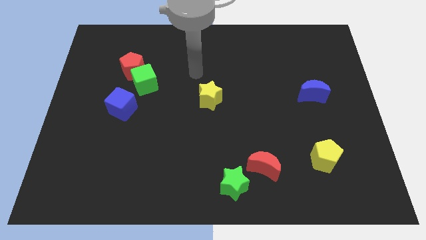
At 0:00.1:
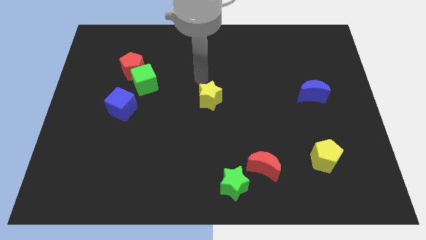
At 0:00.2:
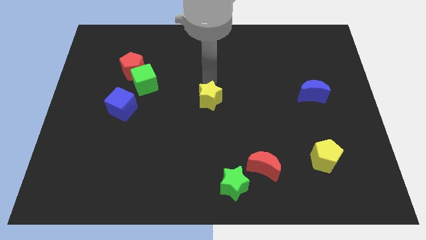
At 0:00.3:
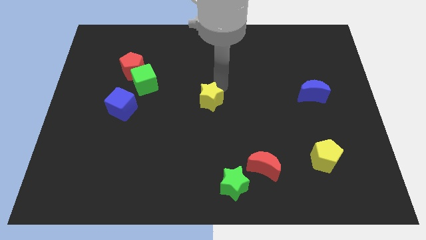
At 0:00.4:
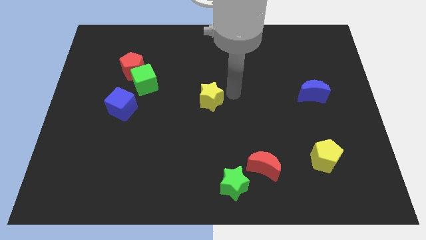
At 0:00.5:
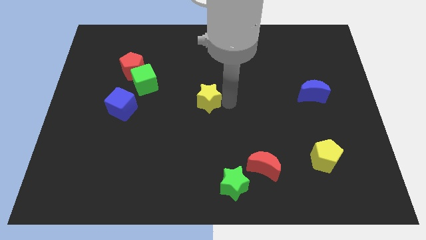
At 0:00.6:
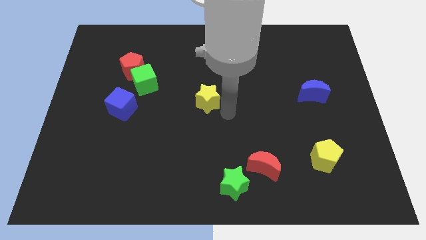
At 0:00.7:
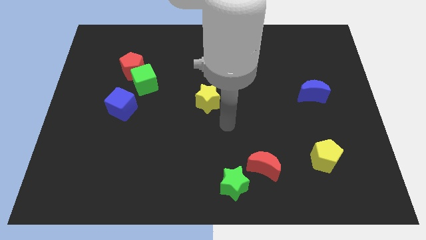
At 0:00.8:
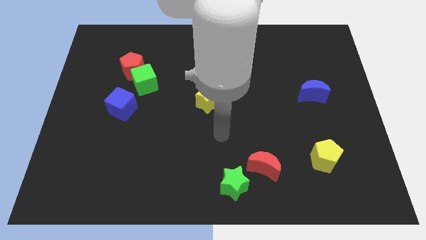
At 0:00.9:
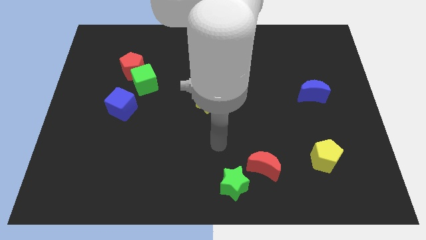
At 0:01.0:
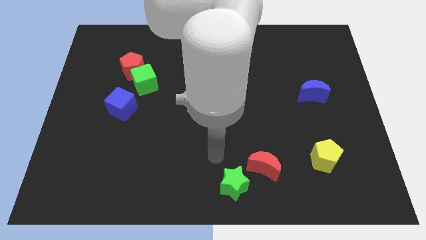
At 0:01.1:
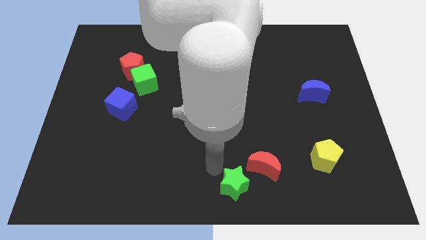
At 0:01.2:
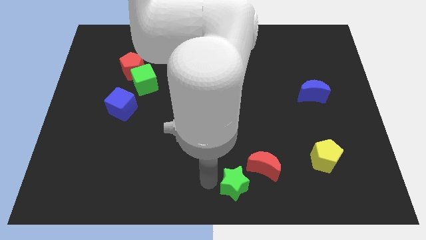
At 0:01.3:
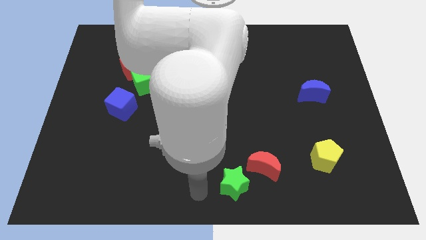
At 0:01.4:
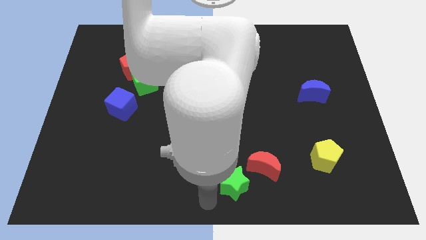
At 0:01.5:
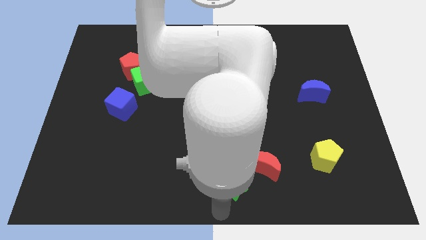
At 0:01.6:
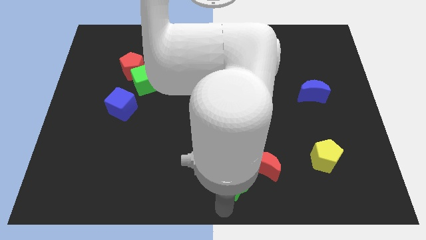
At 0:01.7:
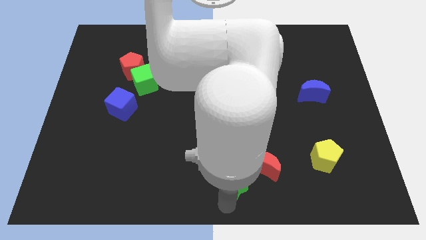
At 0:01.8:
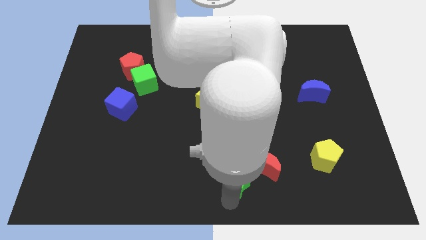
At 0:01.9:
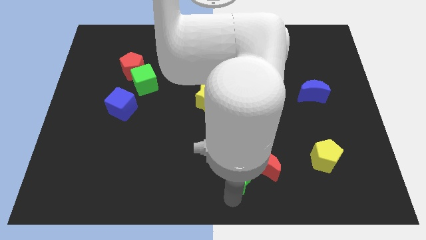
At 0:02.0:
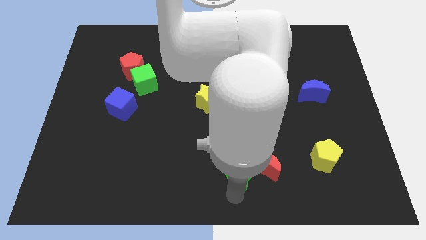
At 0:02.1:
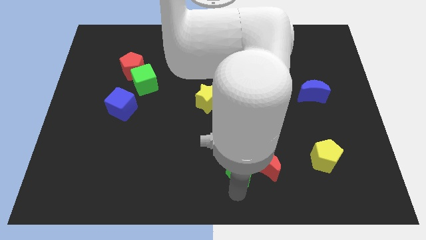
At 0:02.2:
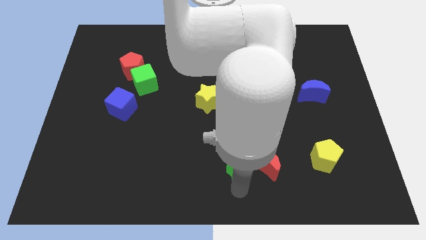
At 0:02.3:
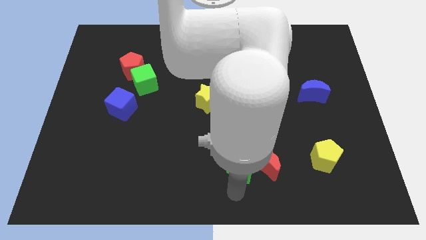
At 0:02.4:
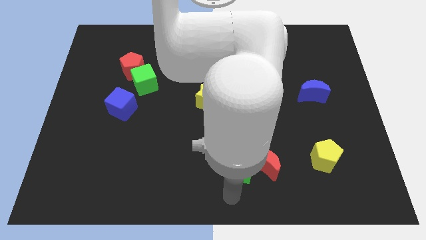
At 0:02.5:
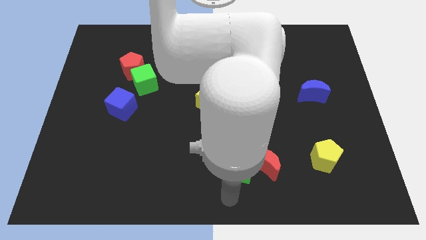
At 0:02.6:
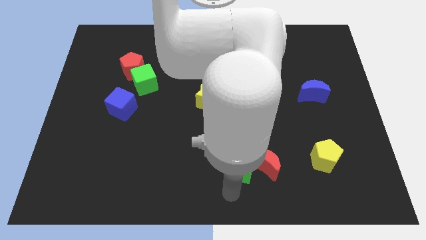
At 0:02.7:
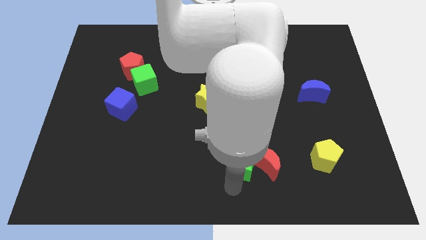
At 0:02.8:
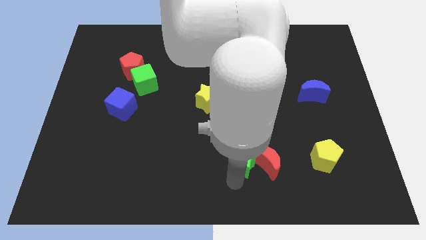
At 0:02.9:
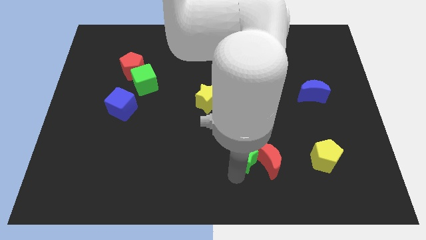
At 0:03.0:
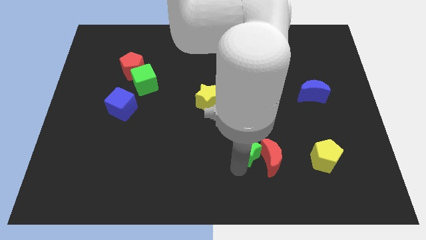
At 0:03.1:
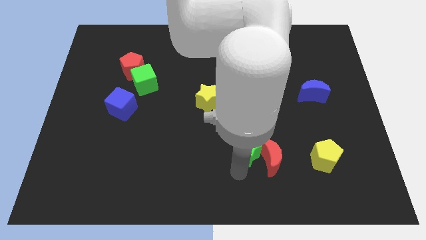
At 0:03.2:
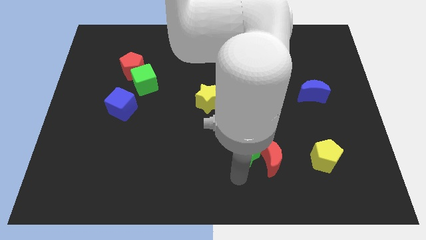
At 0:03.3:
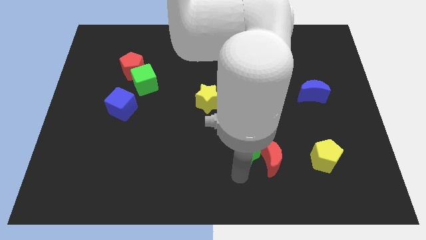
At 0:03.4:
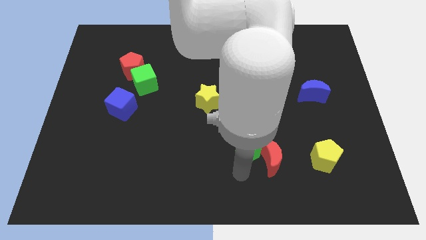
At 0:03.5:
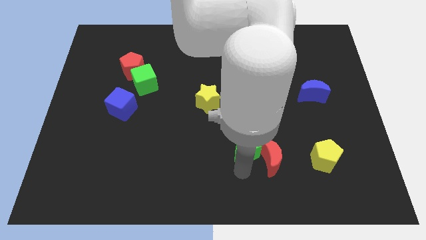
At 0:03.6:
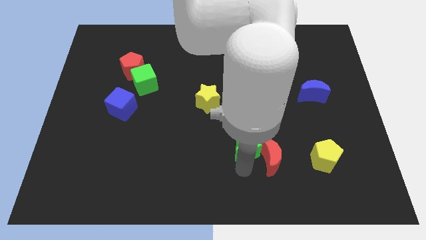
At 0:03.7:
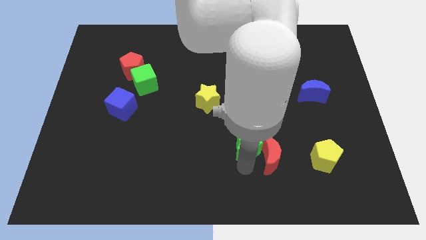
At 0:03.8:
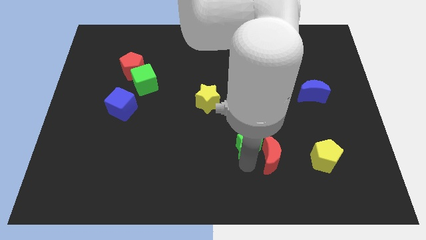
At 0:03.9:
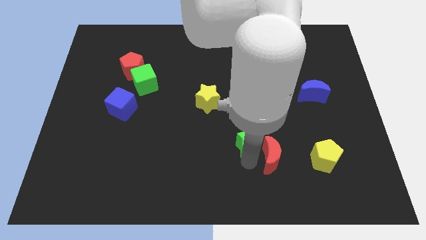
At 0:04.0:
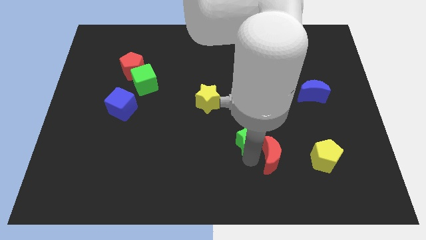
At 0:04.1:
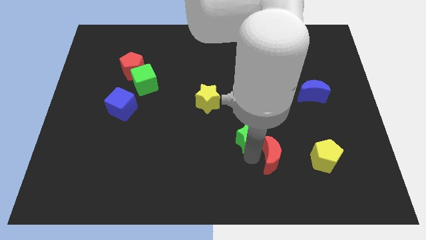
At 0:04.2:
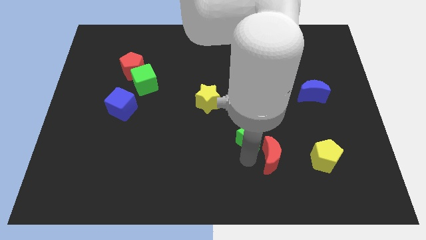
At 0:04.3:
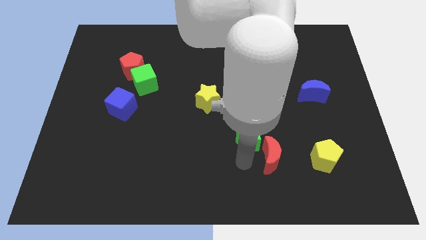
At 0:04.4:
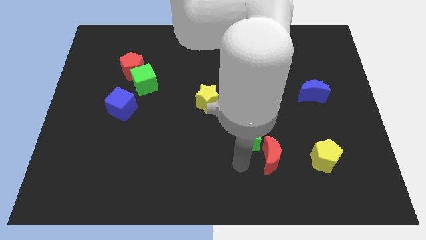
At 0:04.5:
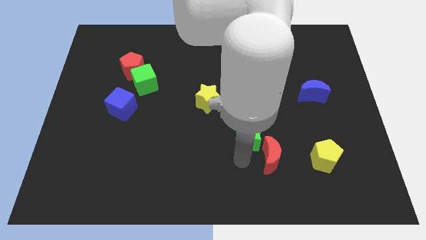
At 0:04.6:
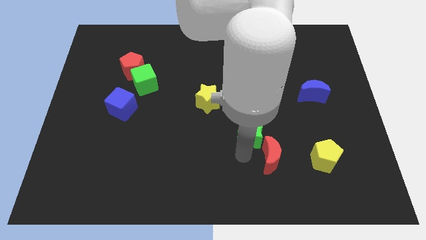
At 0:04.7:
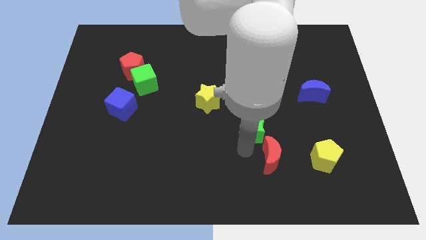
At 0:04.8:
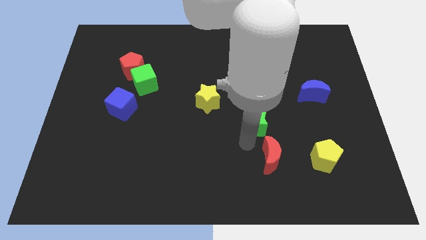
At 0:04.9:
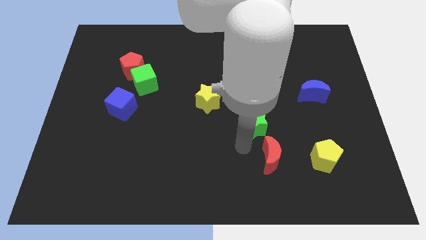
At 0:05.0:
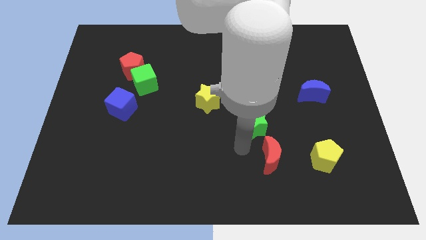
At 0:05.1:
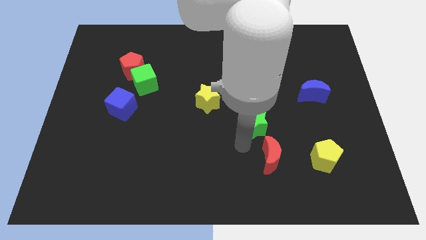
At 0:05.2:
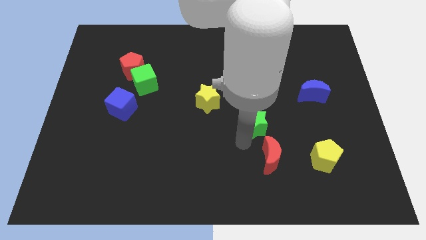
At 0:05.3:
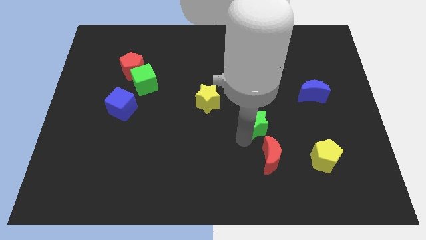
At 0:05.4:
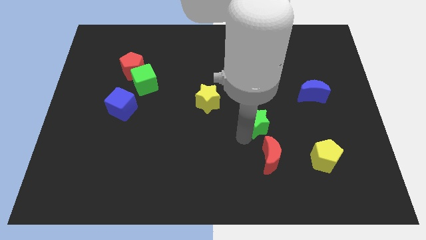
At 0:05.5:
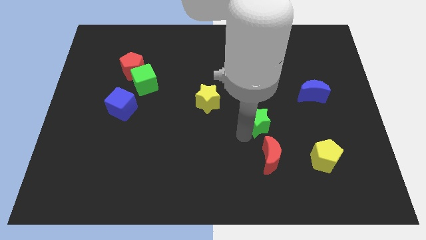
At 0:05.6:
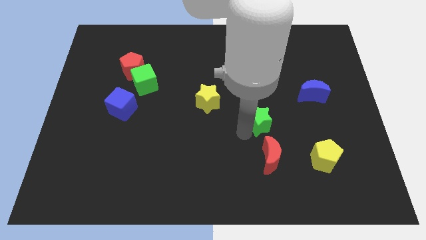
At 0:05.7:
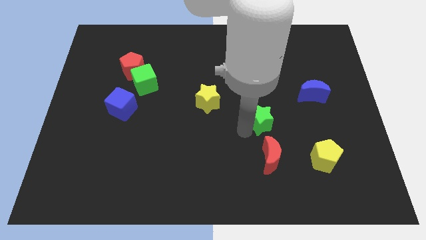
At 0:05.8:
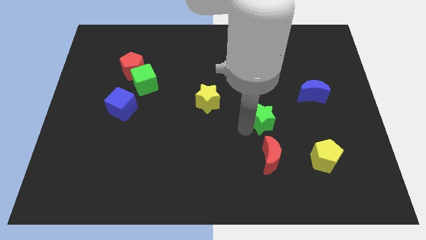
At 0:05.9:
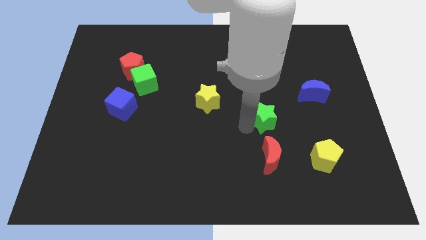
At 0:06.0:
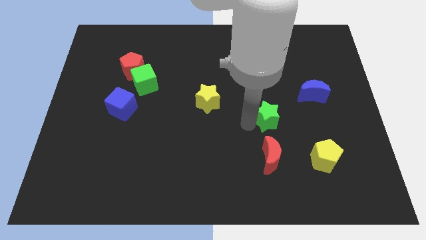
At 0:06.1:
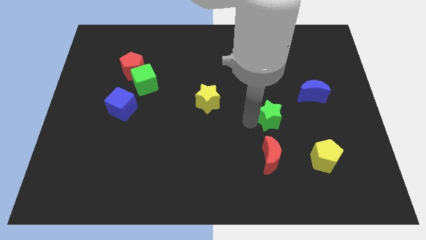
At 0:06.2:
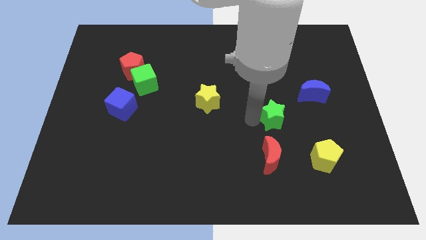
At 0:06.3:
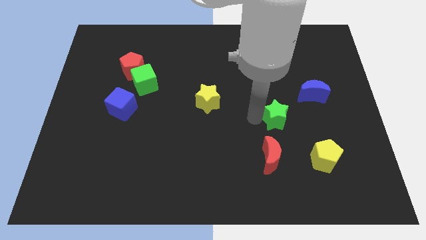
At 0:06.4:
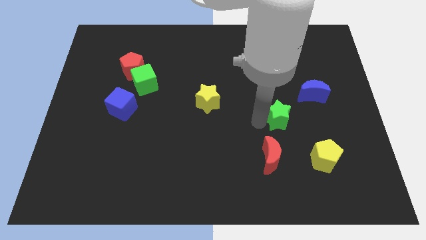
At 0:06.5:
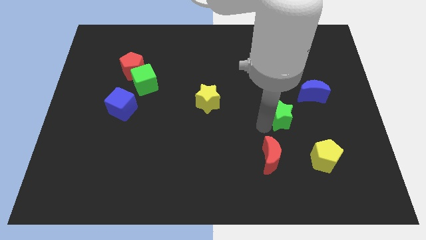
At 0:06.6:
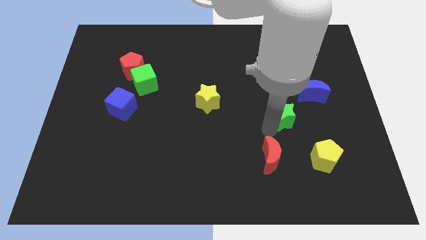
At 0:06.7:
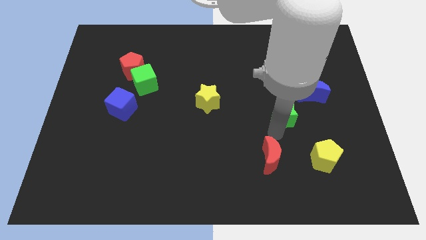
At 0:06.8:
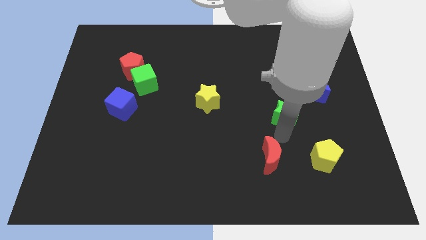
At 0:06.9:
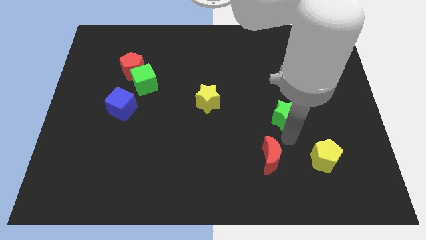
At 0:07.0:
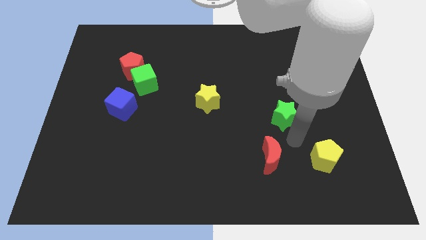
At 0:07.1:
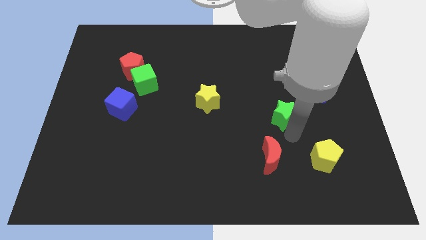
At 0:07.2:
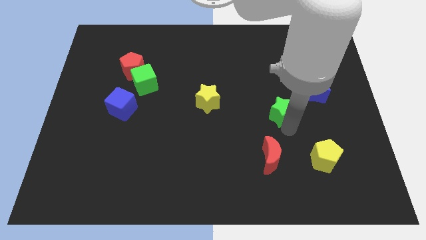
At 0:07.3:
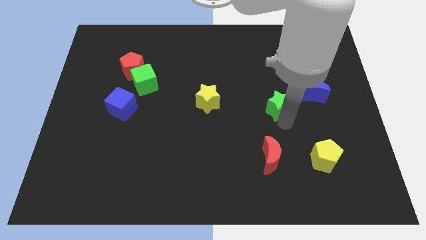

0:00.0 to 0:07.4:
slide the green star to the left of the blue moon
